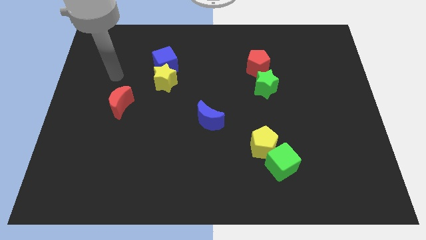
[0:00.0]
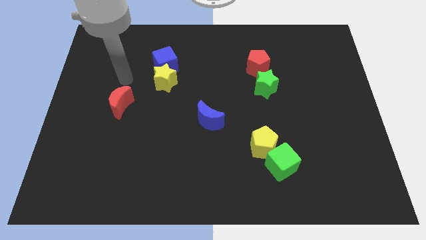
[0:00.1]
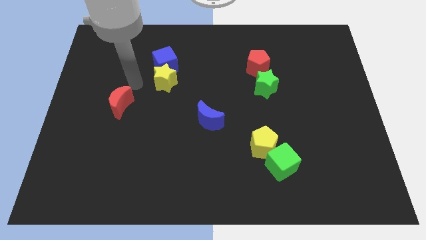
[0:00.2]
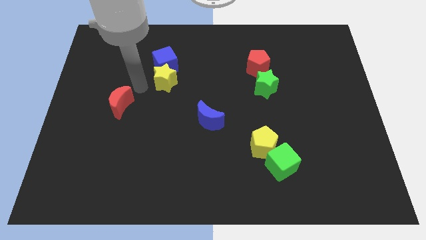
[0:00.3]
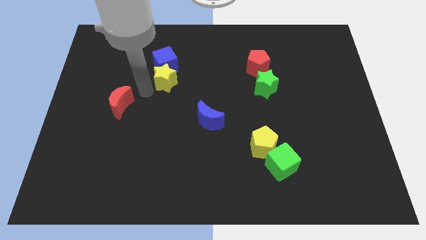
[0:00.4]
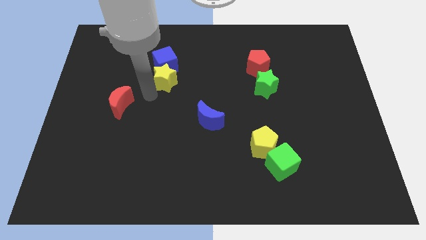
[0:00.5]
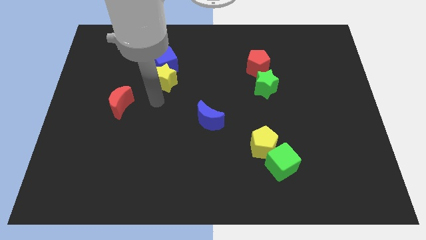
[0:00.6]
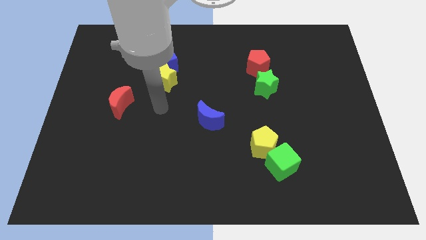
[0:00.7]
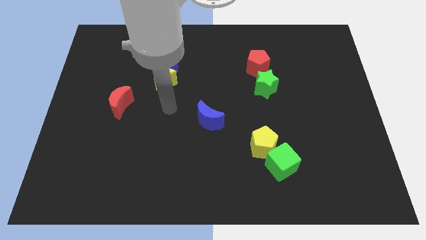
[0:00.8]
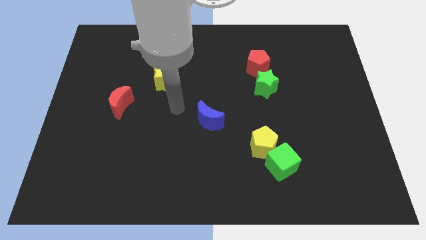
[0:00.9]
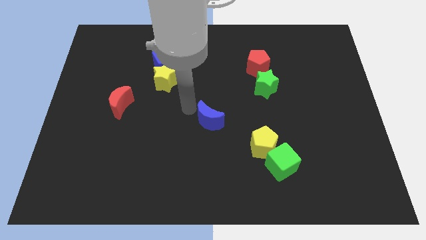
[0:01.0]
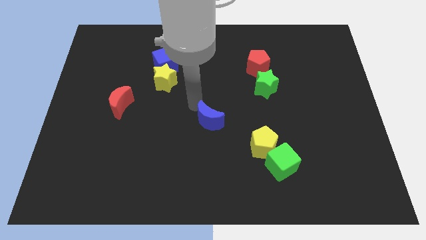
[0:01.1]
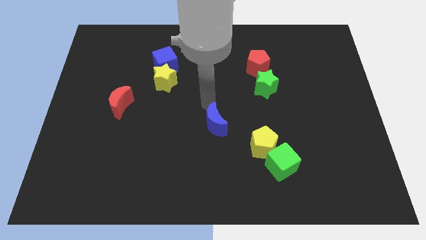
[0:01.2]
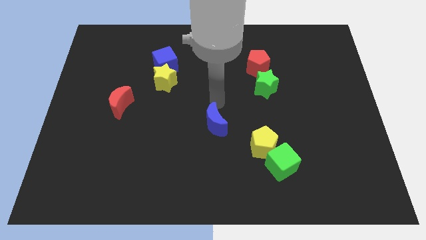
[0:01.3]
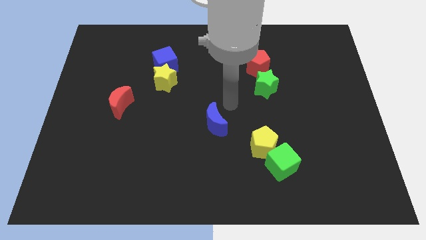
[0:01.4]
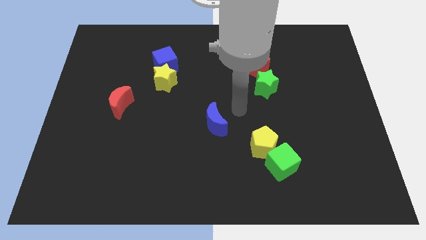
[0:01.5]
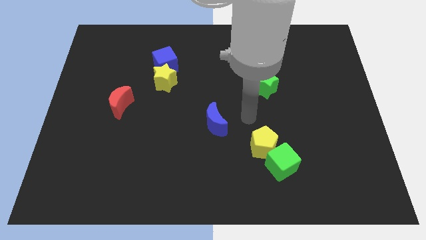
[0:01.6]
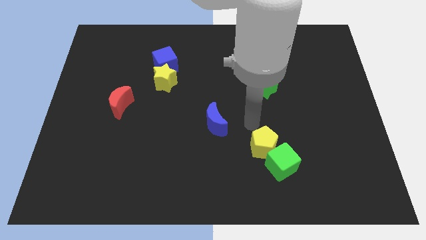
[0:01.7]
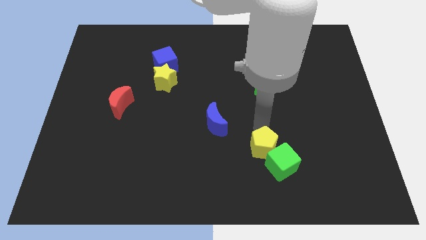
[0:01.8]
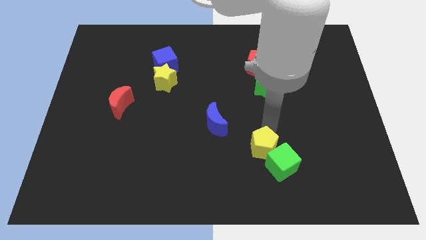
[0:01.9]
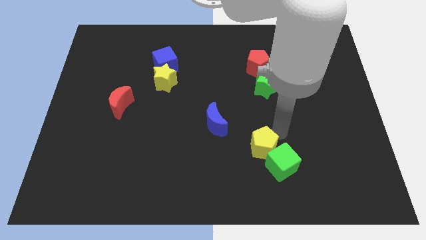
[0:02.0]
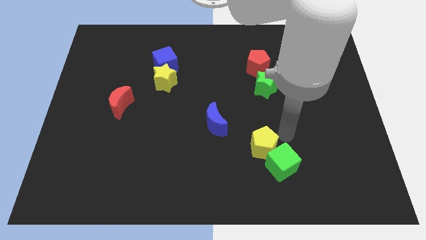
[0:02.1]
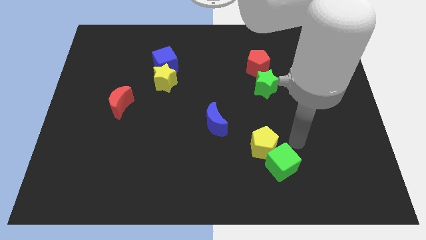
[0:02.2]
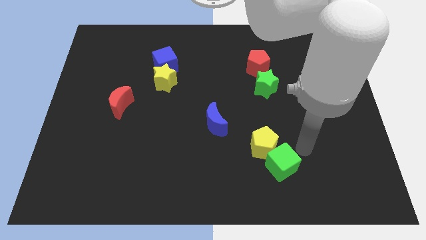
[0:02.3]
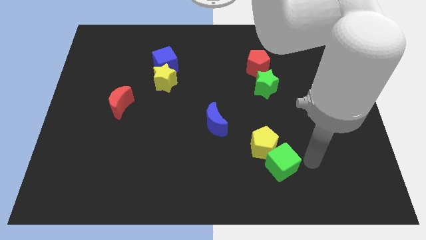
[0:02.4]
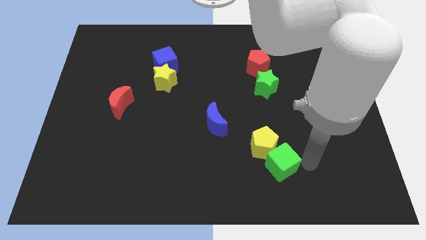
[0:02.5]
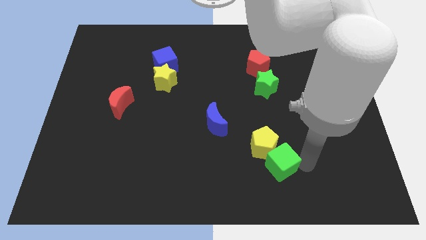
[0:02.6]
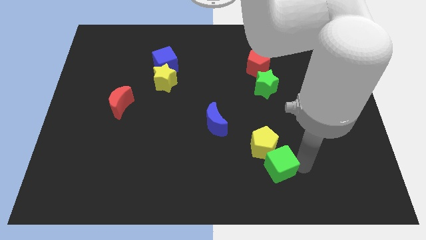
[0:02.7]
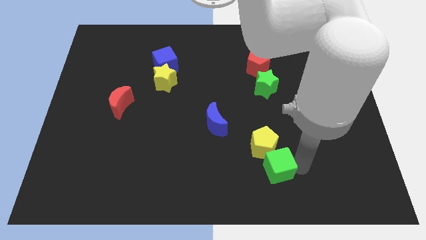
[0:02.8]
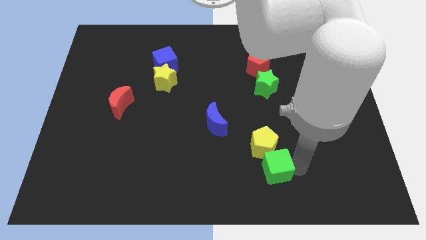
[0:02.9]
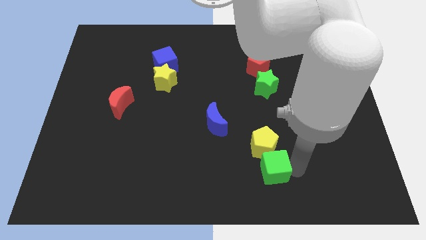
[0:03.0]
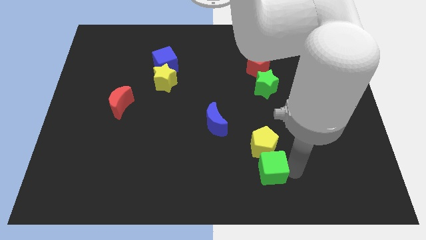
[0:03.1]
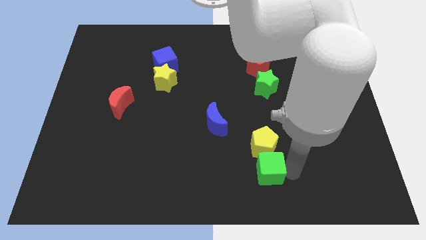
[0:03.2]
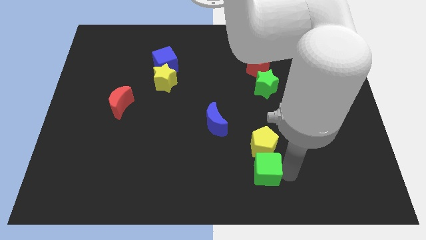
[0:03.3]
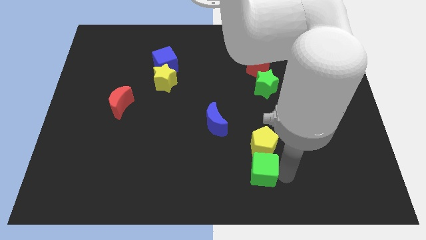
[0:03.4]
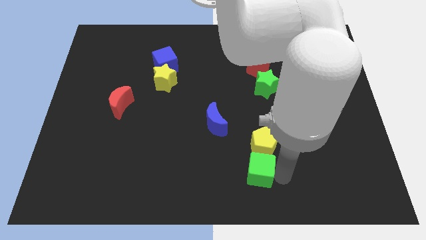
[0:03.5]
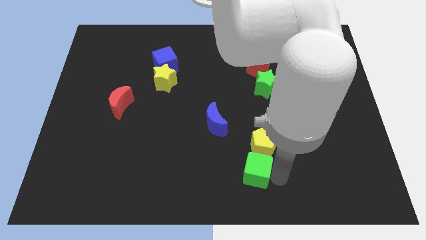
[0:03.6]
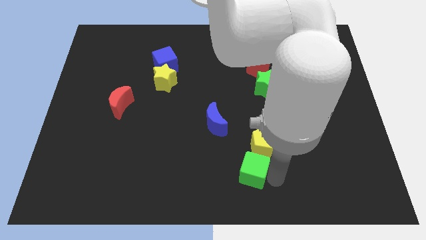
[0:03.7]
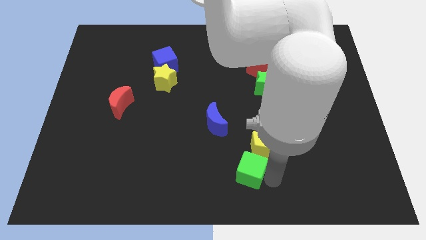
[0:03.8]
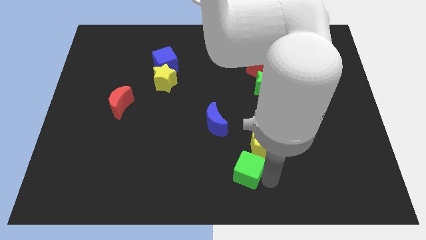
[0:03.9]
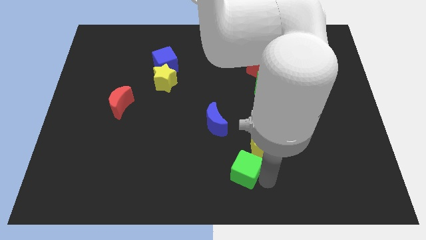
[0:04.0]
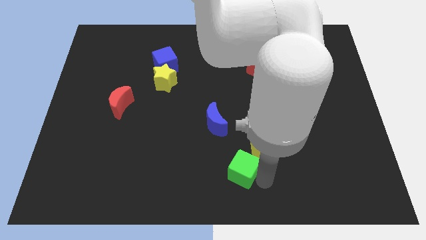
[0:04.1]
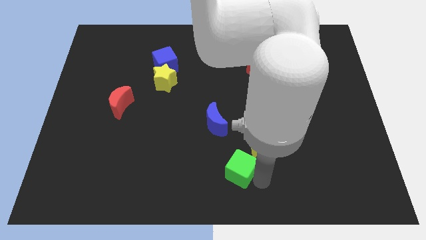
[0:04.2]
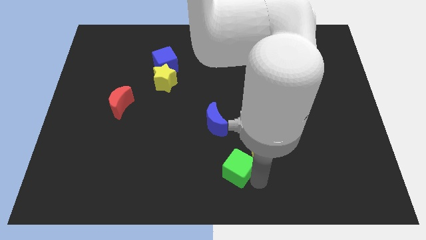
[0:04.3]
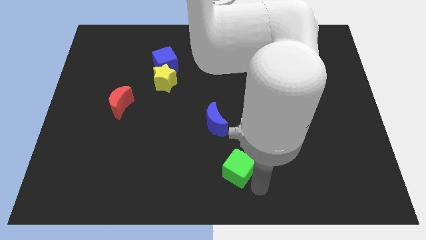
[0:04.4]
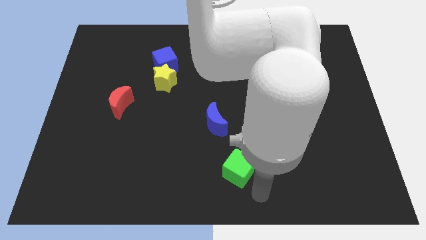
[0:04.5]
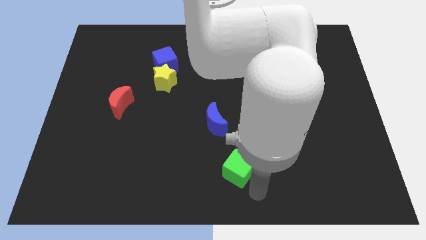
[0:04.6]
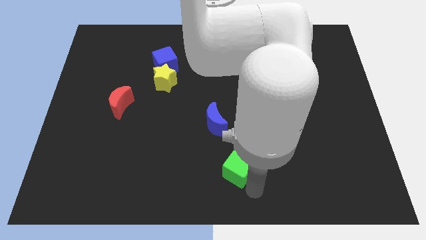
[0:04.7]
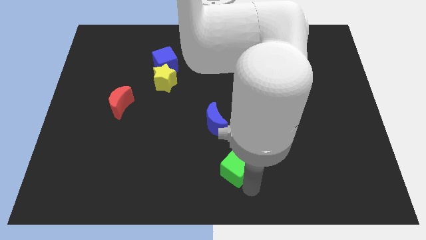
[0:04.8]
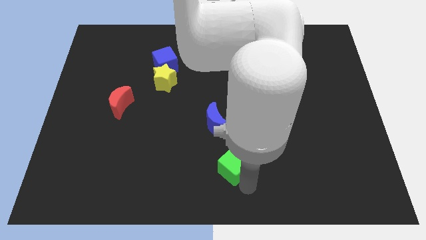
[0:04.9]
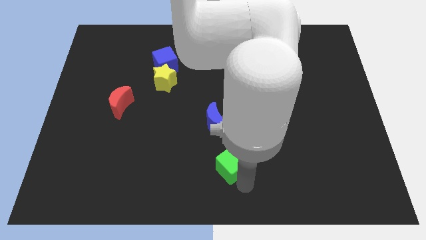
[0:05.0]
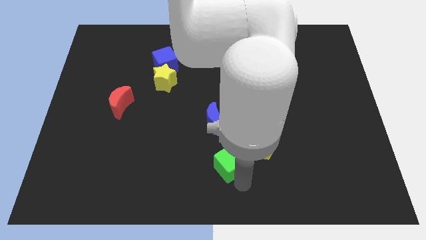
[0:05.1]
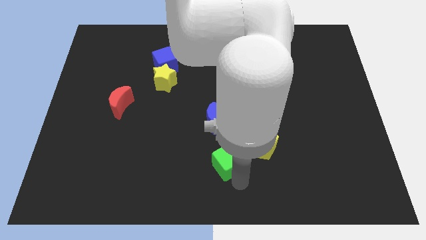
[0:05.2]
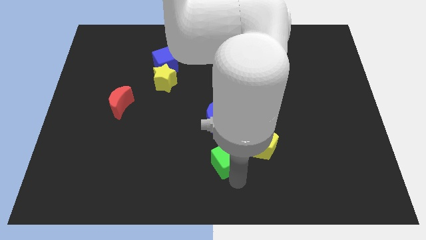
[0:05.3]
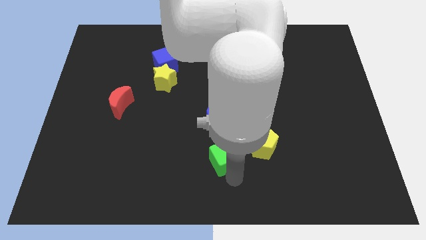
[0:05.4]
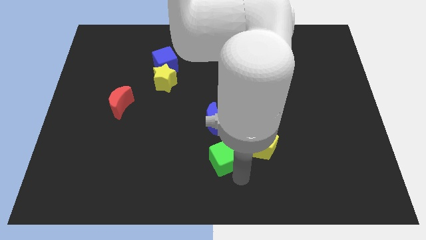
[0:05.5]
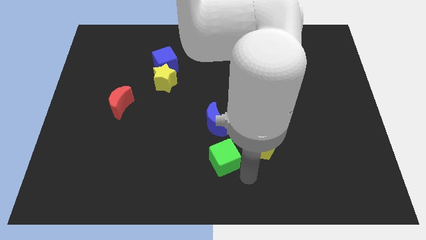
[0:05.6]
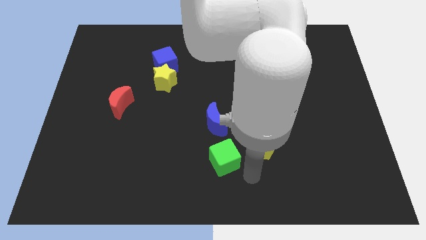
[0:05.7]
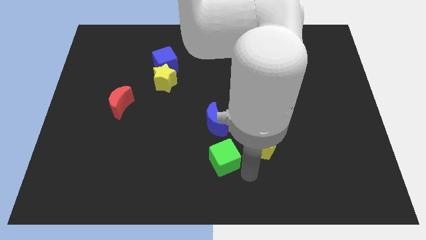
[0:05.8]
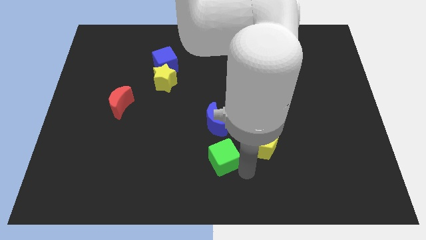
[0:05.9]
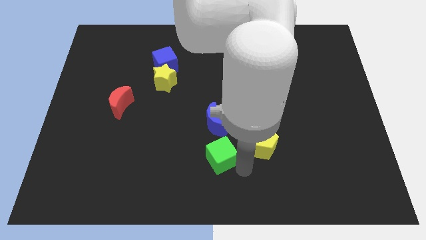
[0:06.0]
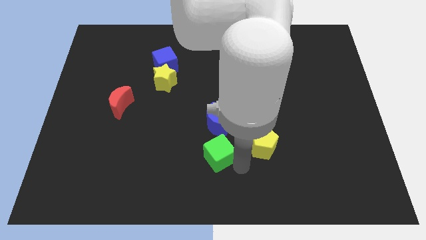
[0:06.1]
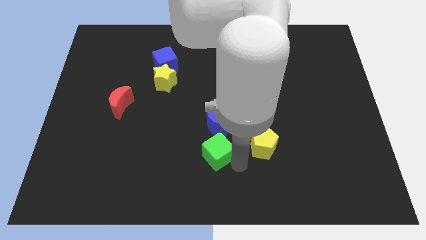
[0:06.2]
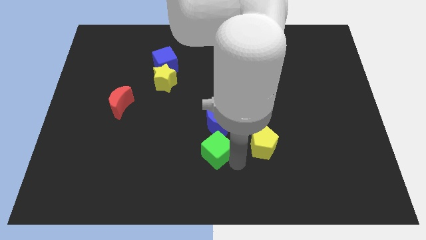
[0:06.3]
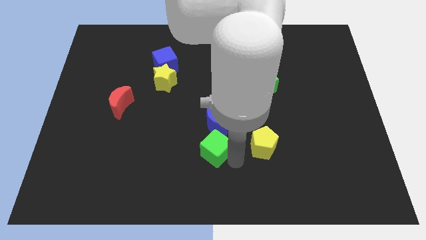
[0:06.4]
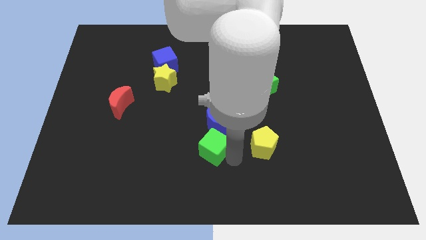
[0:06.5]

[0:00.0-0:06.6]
push the green cube to the bottom left side of the blue moon
